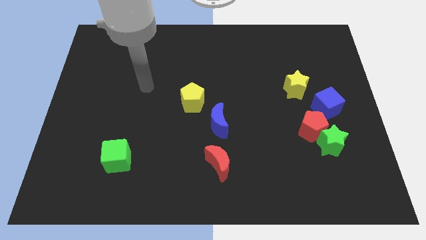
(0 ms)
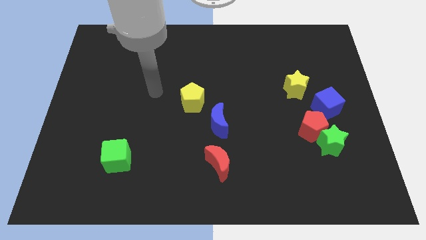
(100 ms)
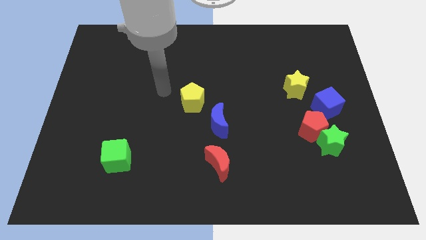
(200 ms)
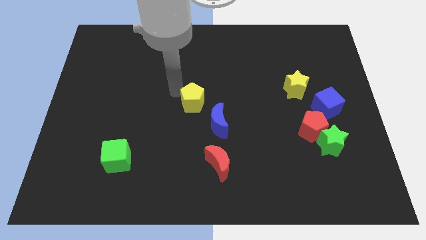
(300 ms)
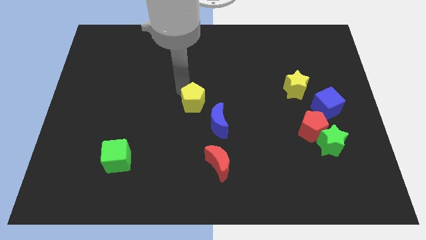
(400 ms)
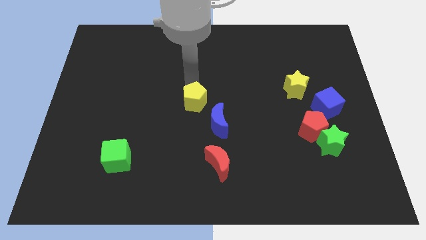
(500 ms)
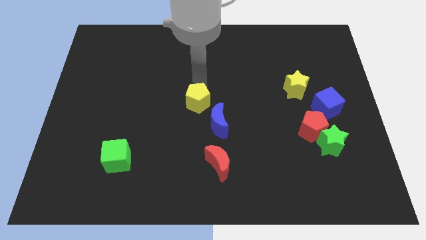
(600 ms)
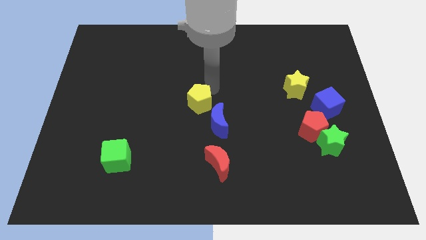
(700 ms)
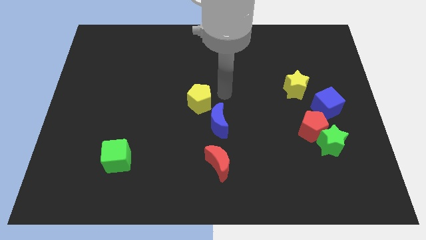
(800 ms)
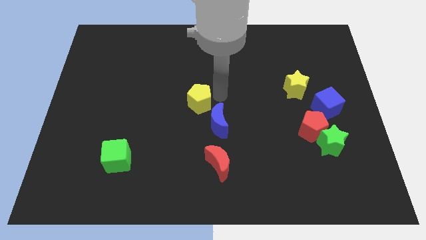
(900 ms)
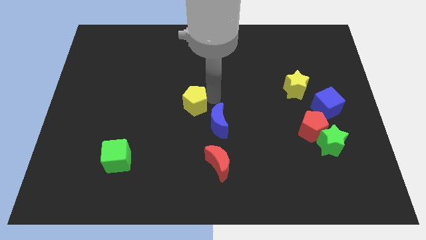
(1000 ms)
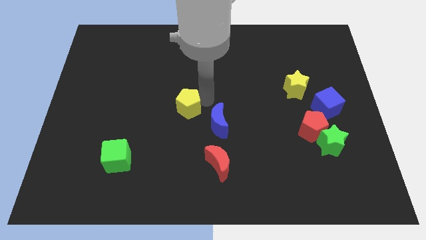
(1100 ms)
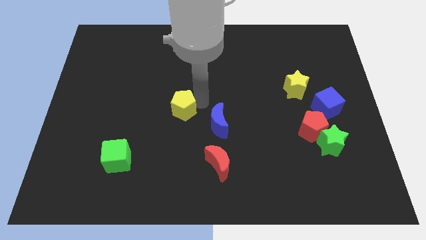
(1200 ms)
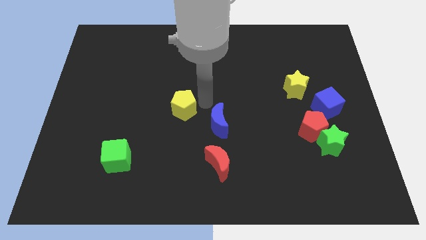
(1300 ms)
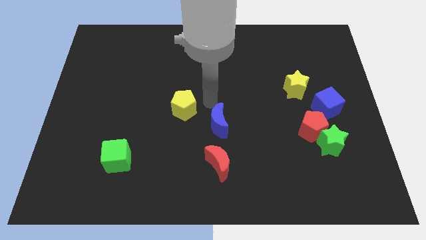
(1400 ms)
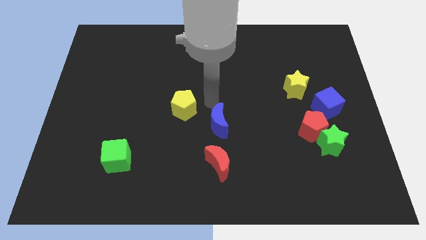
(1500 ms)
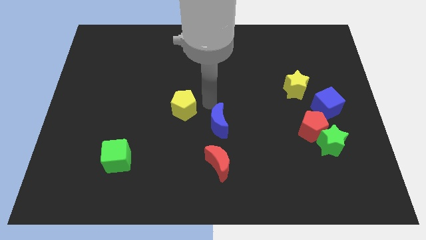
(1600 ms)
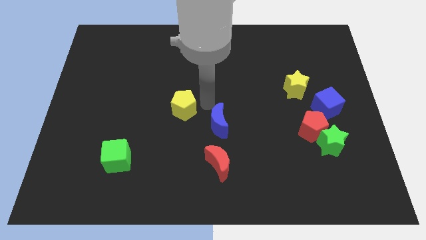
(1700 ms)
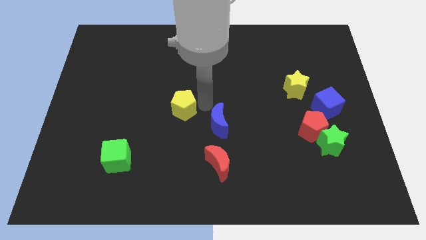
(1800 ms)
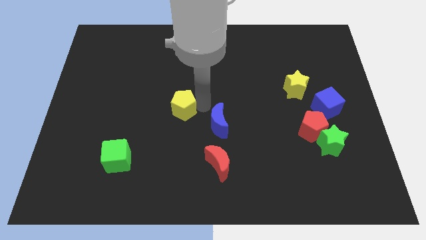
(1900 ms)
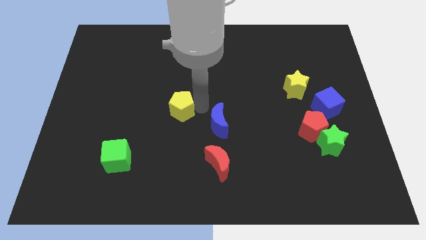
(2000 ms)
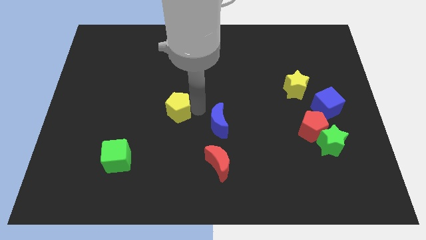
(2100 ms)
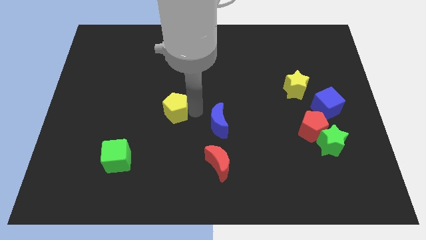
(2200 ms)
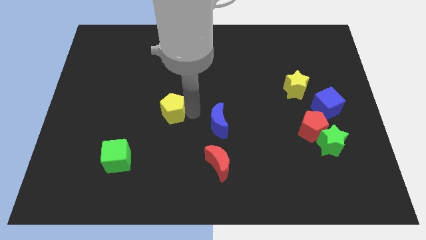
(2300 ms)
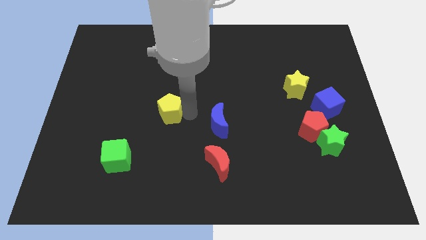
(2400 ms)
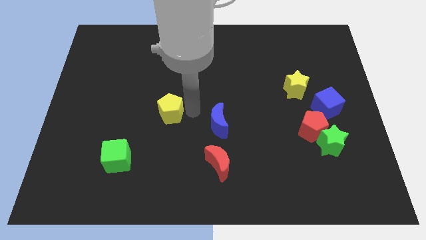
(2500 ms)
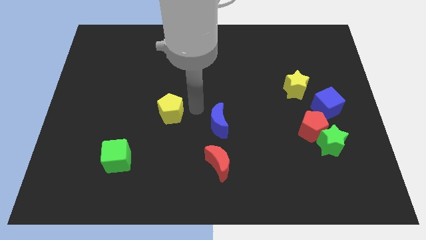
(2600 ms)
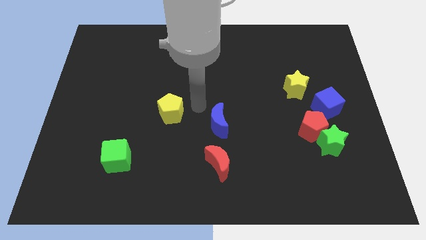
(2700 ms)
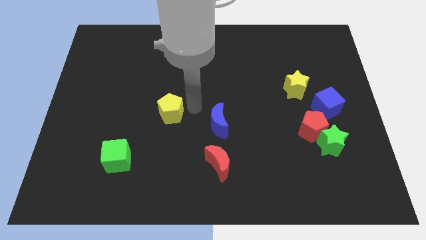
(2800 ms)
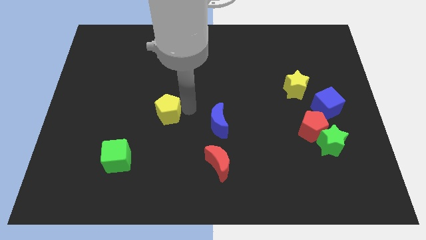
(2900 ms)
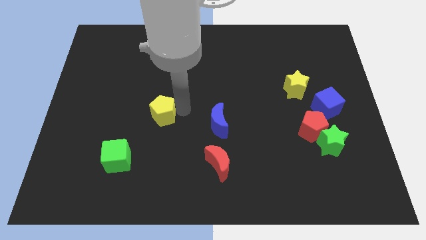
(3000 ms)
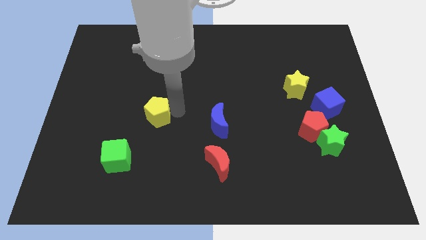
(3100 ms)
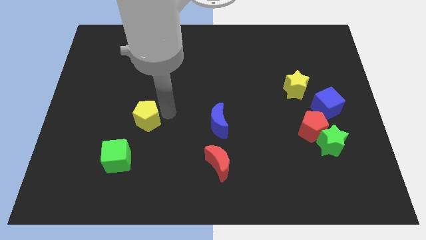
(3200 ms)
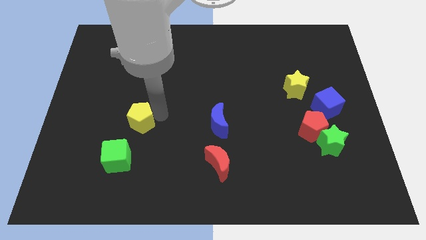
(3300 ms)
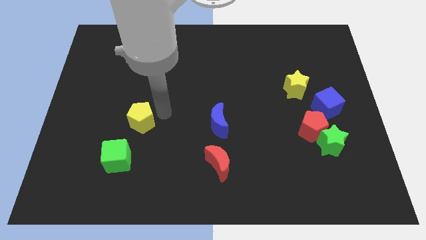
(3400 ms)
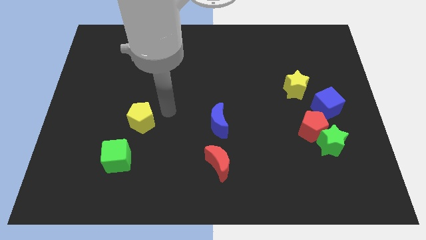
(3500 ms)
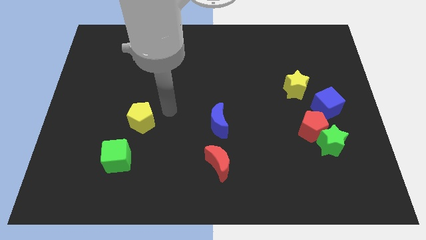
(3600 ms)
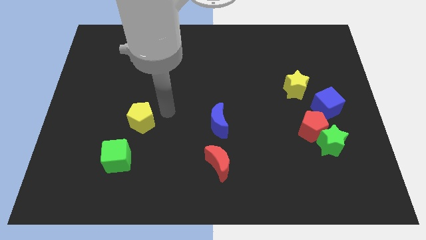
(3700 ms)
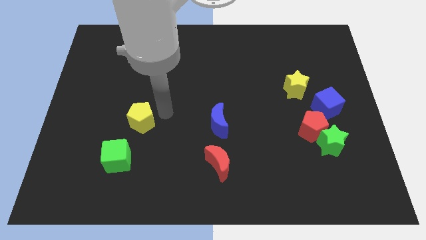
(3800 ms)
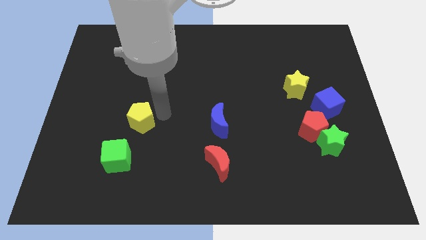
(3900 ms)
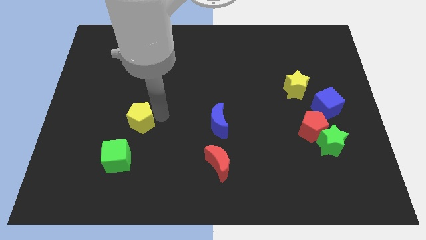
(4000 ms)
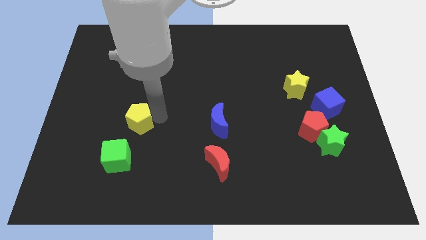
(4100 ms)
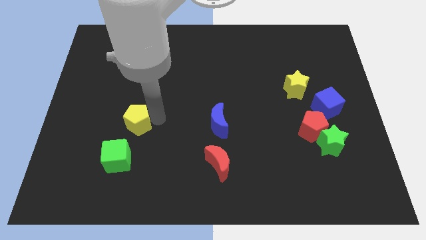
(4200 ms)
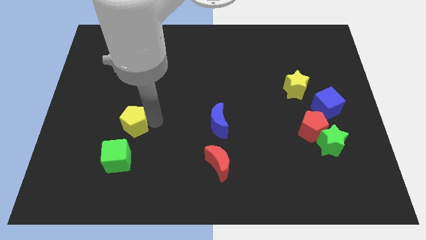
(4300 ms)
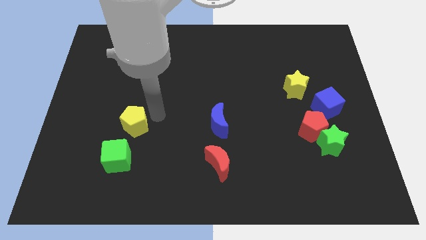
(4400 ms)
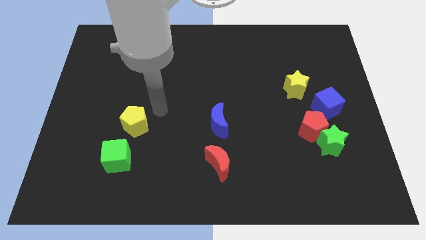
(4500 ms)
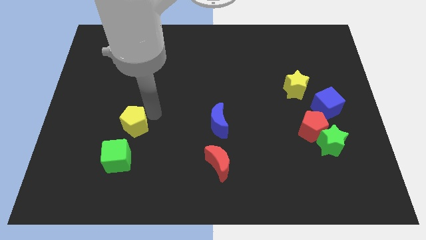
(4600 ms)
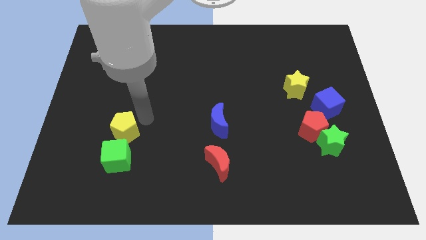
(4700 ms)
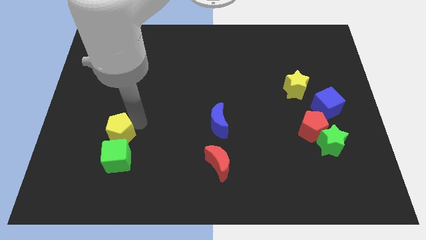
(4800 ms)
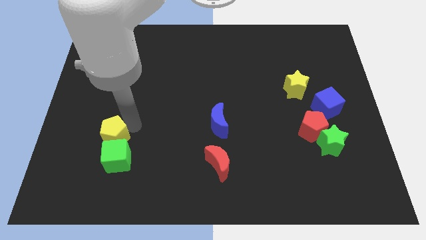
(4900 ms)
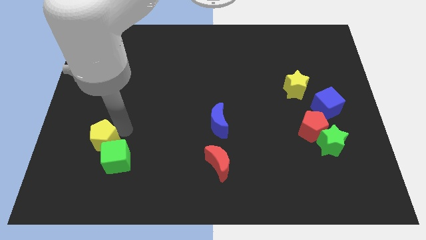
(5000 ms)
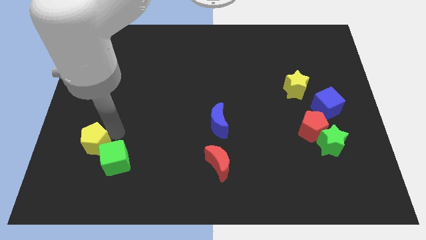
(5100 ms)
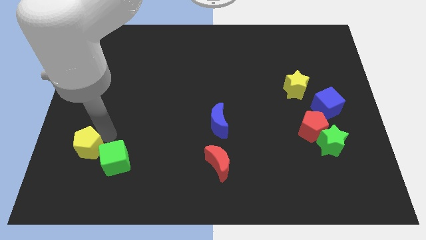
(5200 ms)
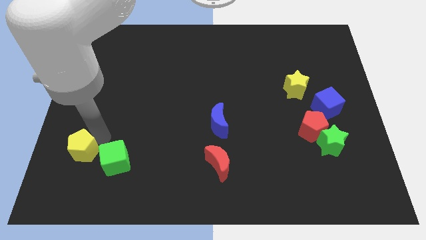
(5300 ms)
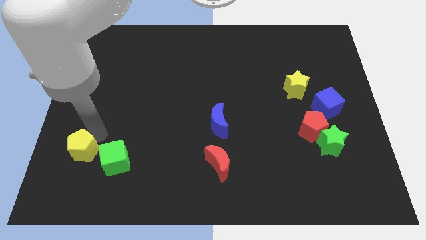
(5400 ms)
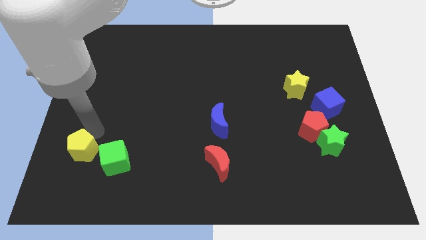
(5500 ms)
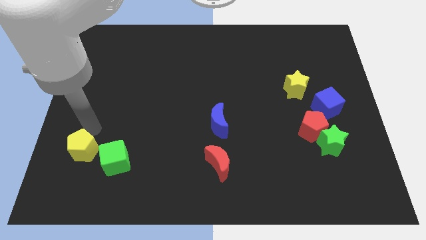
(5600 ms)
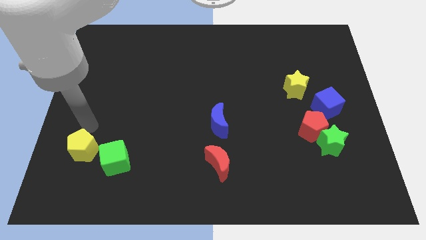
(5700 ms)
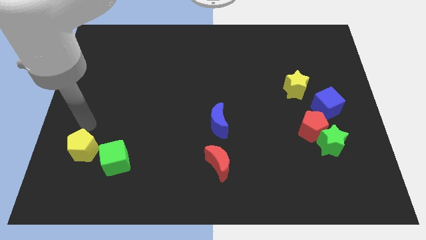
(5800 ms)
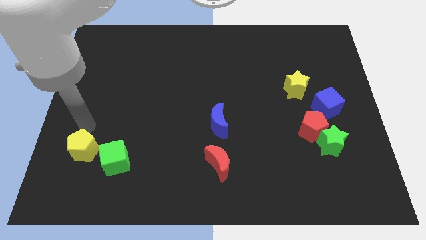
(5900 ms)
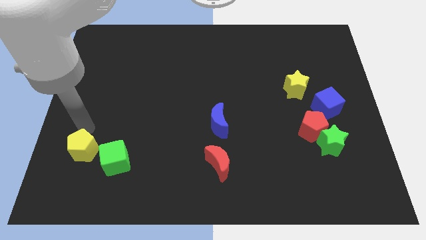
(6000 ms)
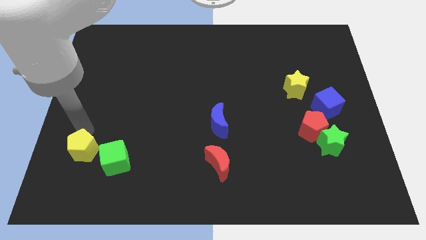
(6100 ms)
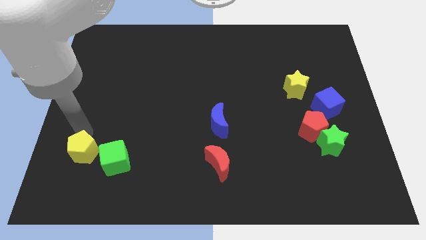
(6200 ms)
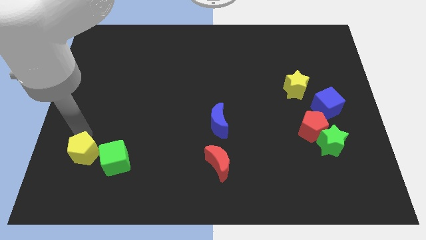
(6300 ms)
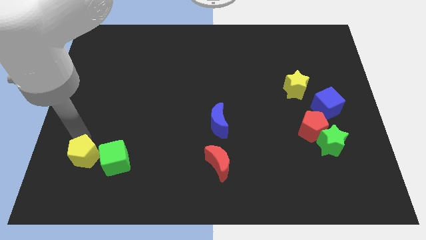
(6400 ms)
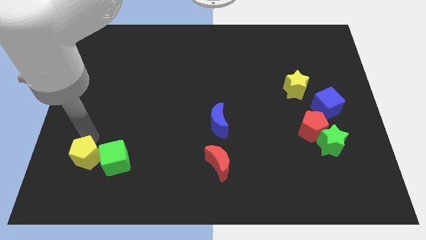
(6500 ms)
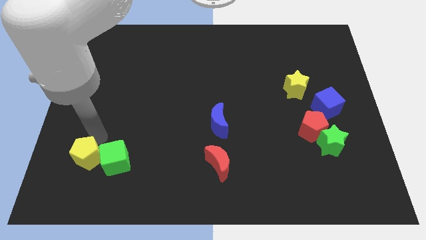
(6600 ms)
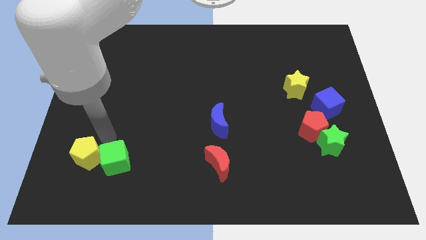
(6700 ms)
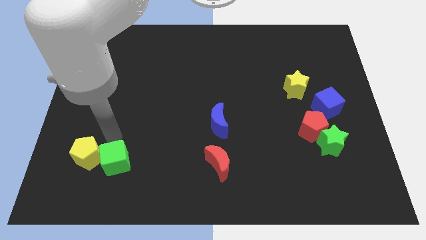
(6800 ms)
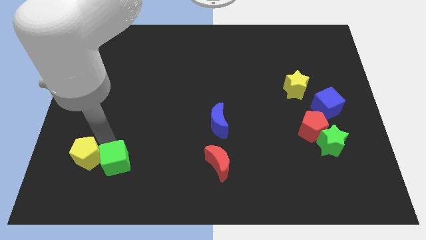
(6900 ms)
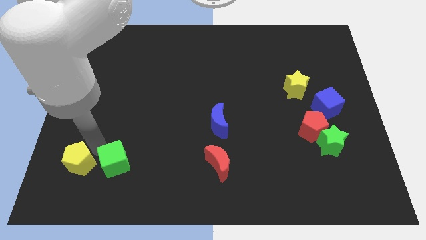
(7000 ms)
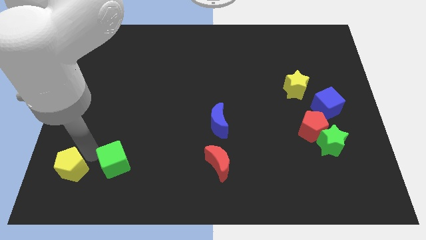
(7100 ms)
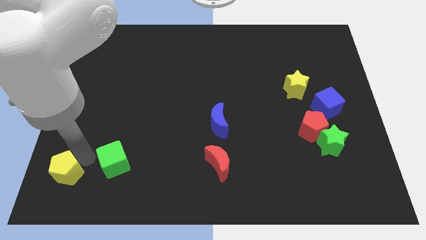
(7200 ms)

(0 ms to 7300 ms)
put the yellow pentagon to the lower left corner
